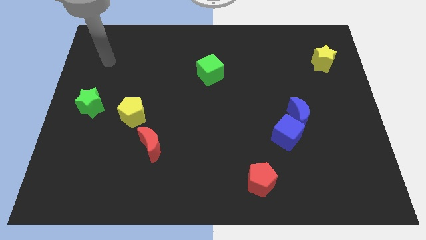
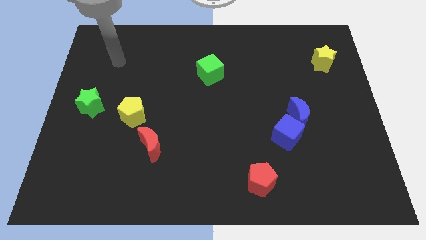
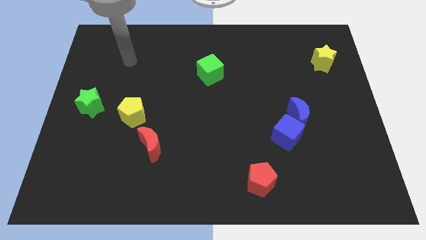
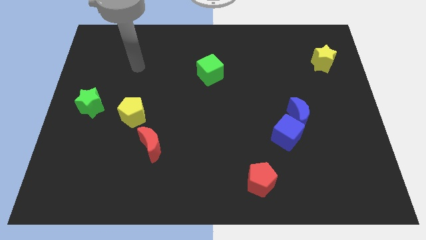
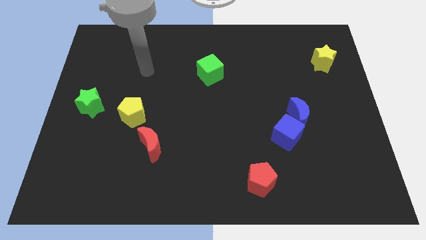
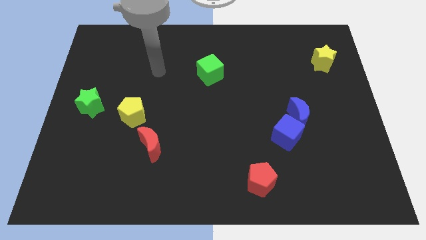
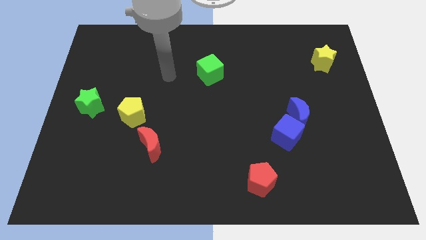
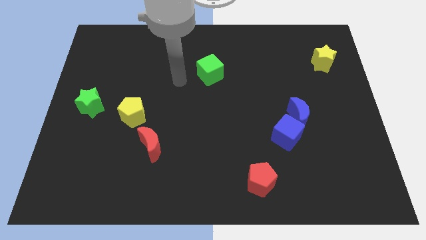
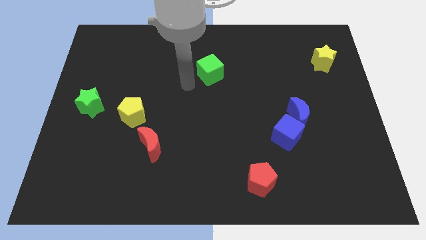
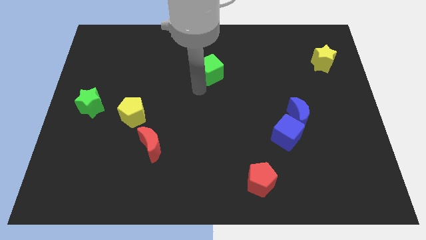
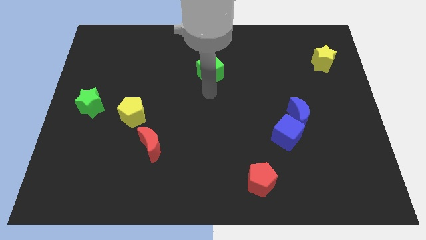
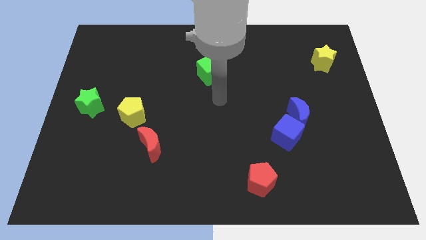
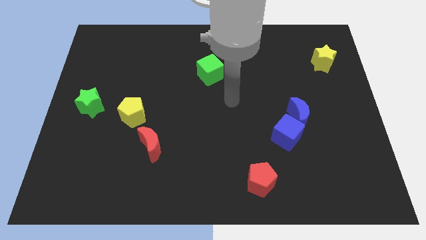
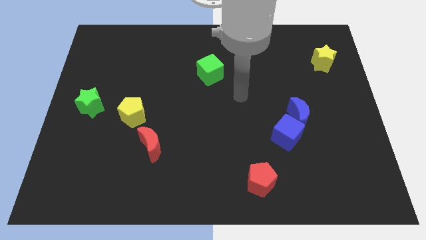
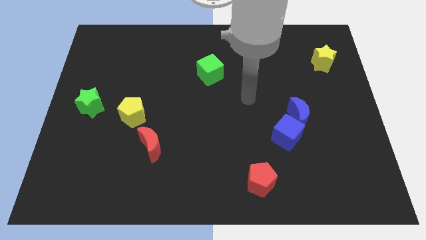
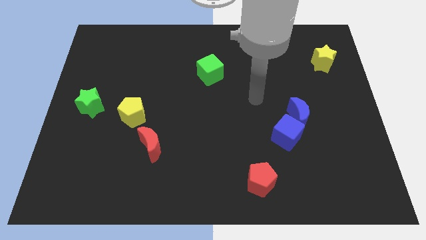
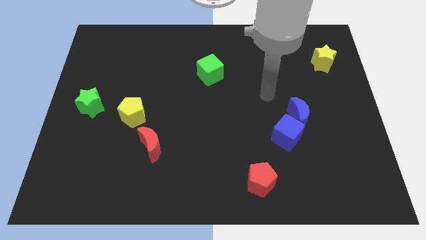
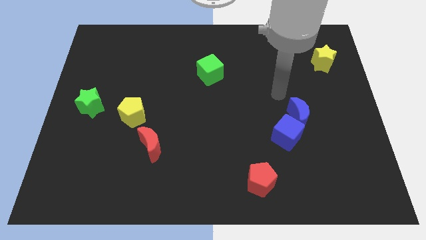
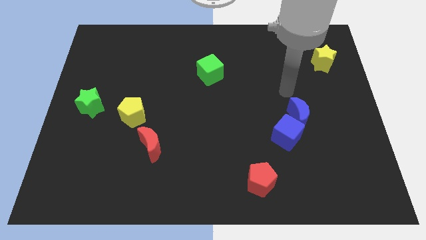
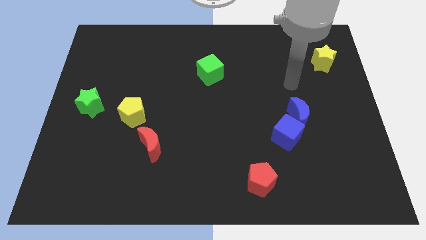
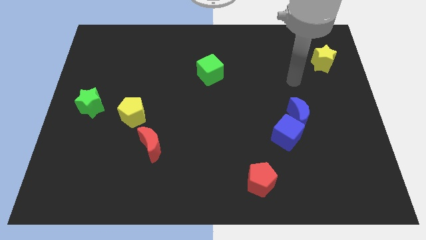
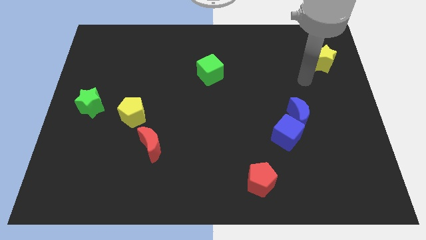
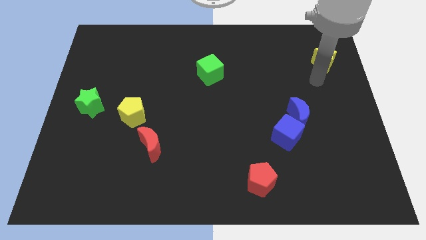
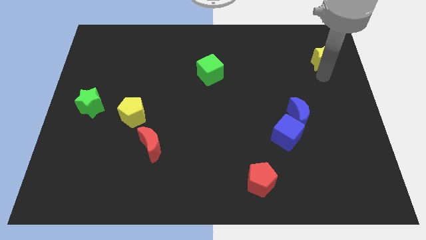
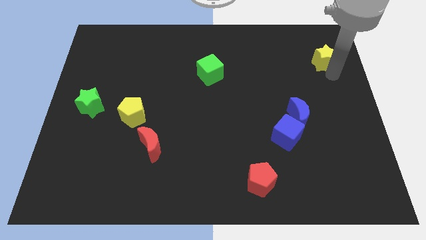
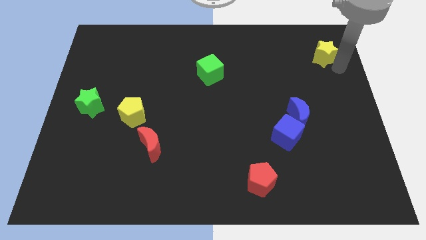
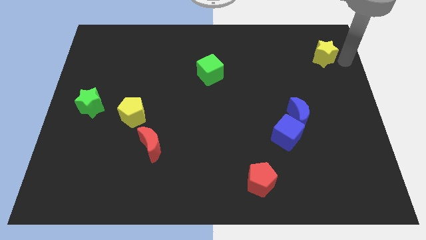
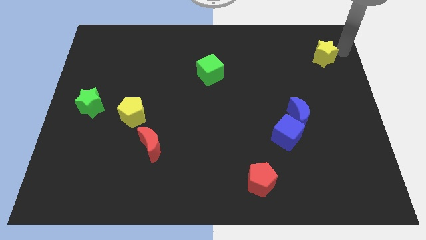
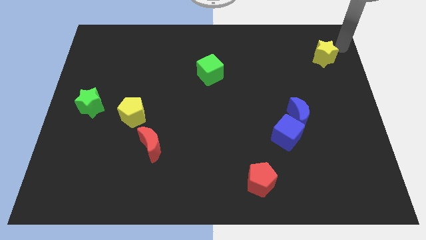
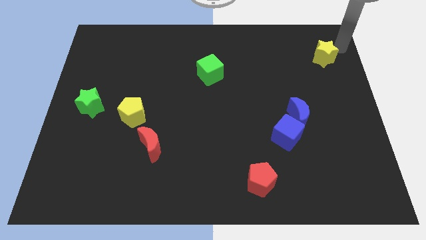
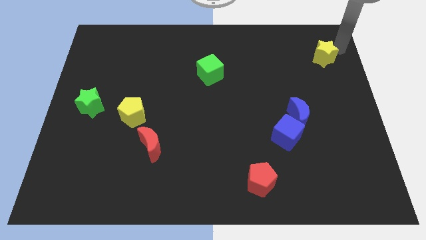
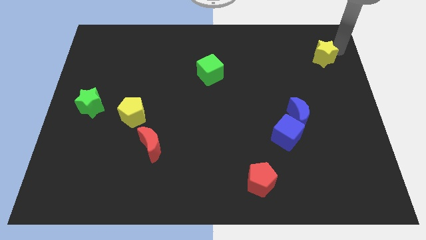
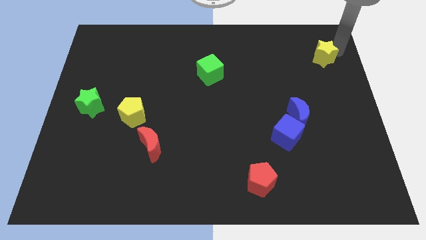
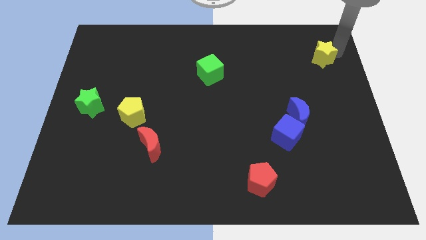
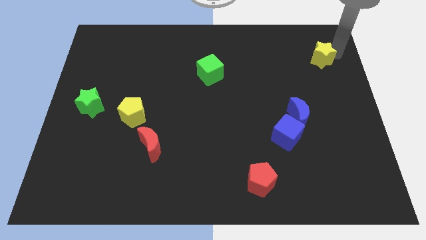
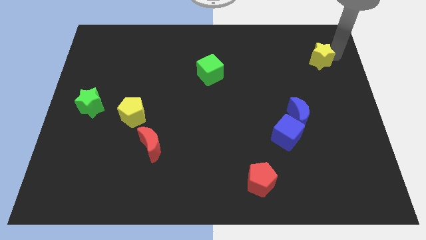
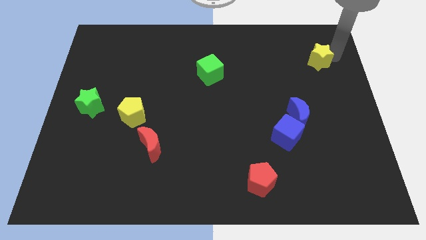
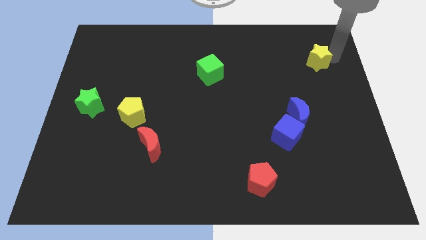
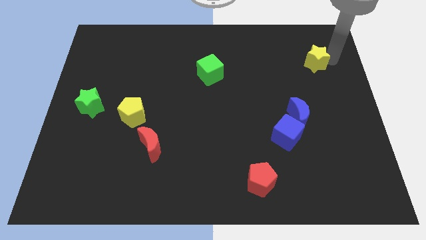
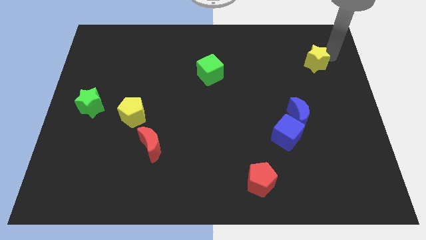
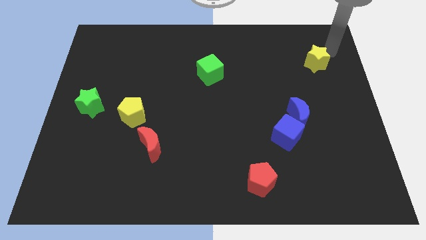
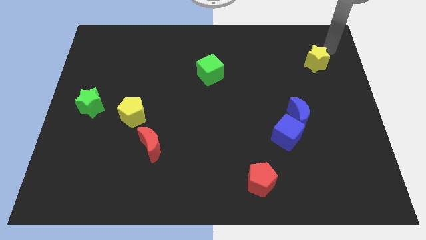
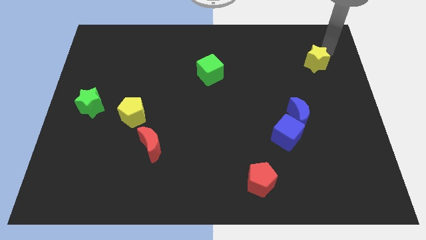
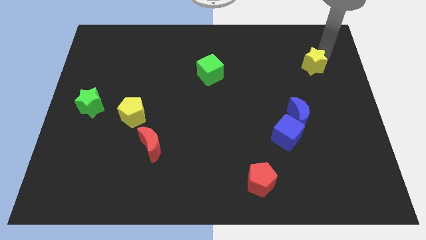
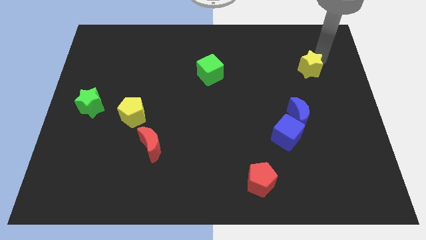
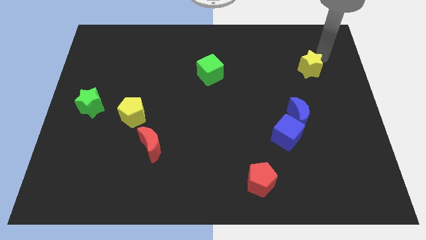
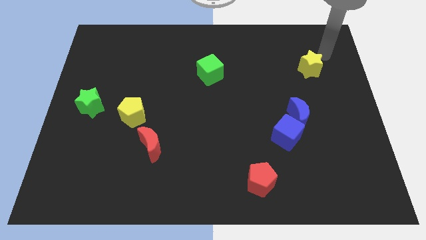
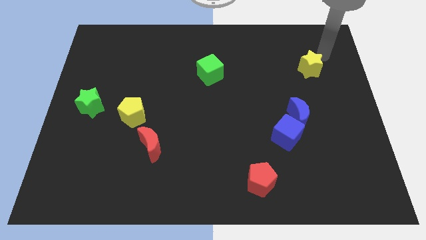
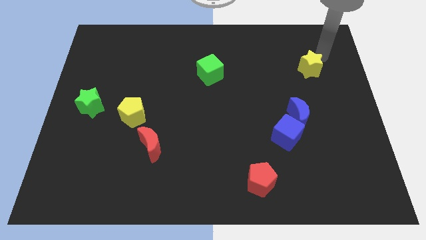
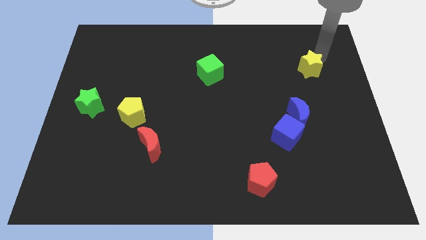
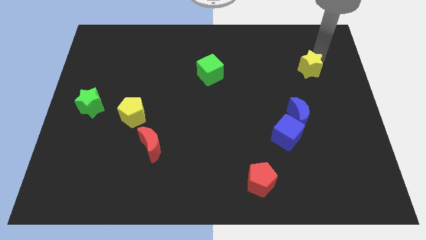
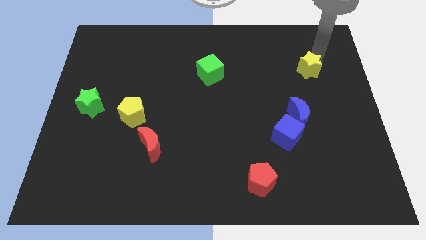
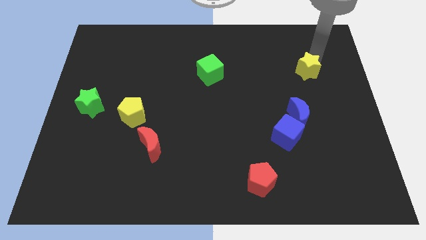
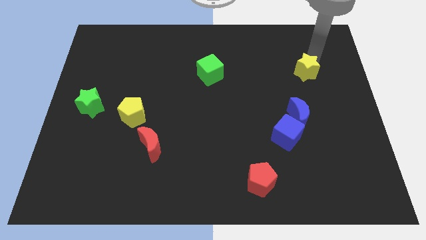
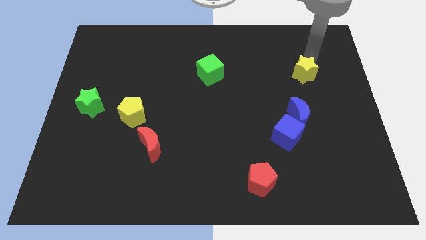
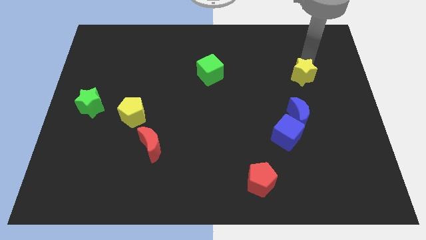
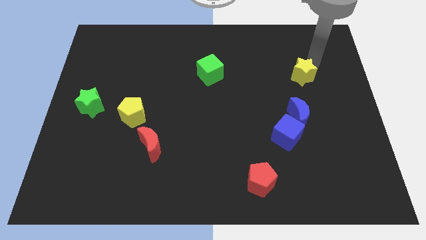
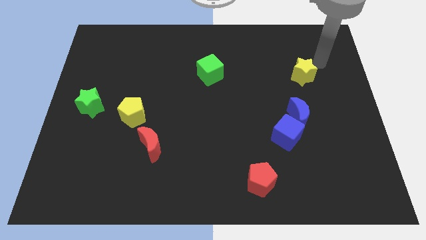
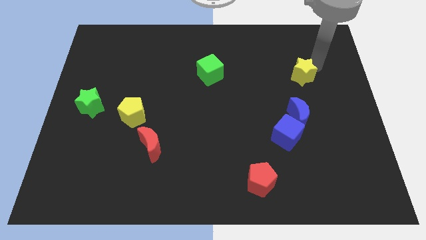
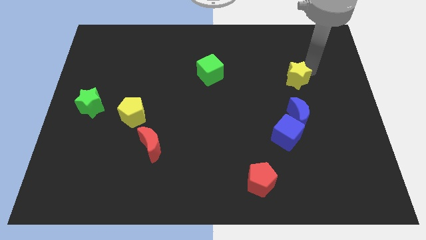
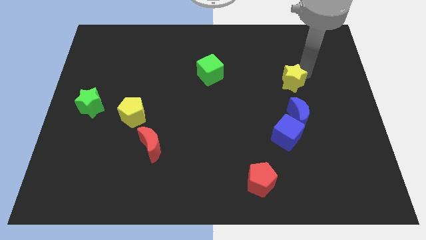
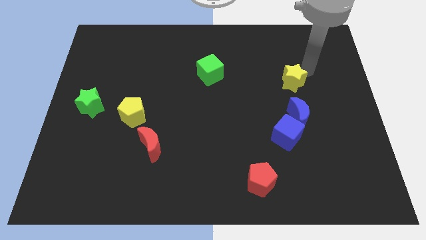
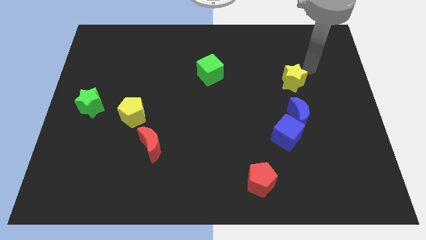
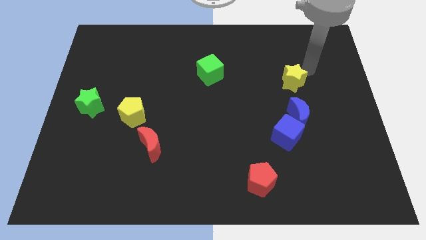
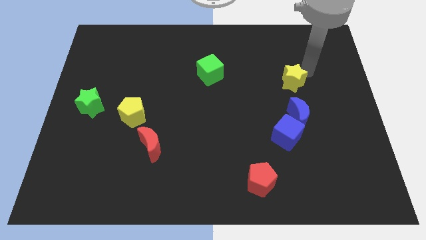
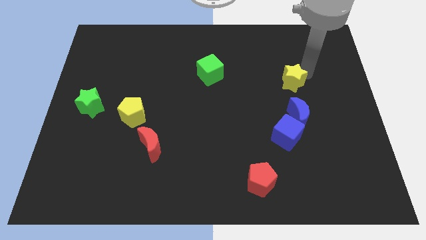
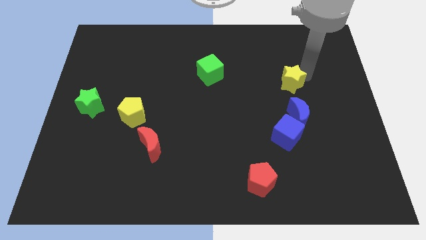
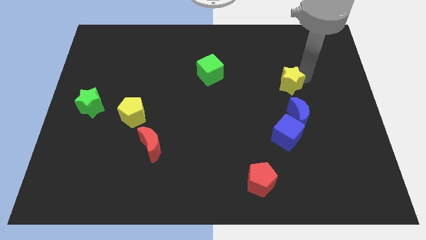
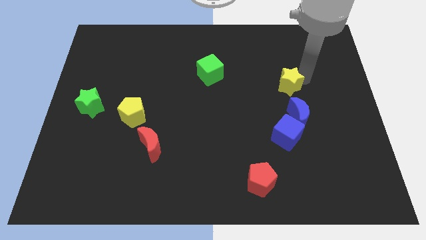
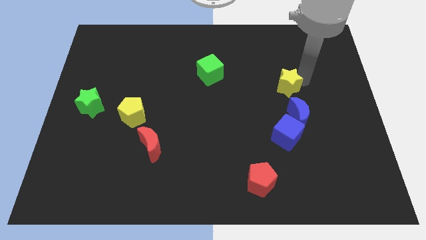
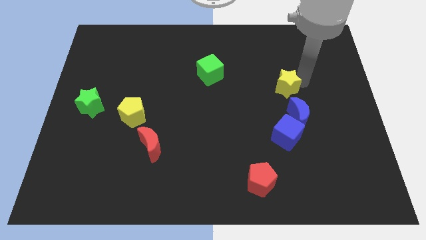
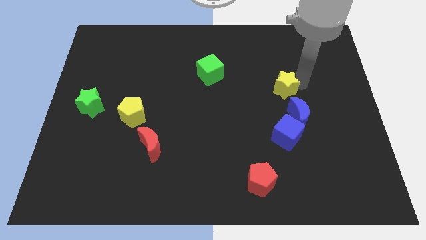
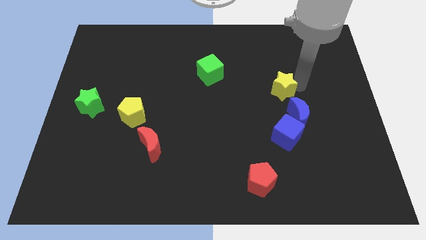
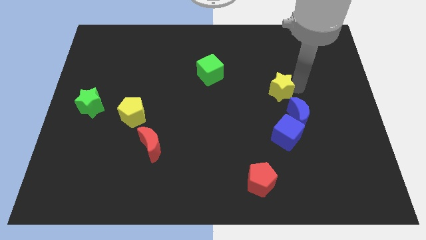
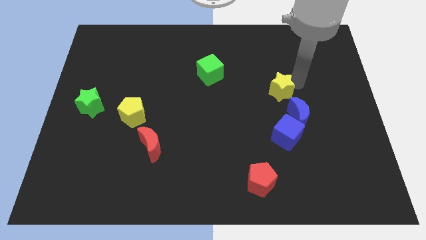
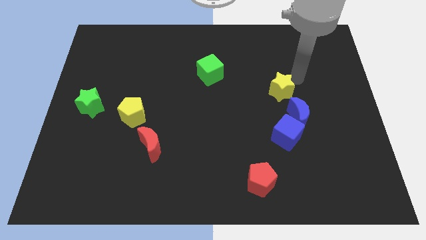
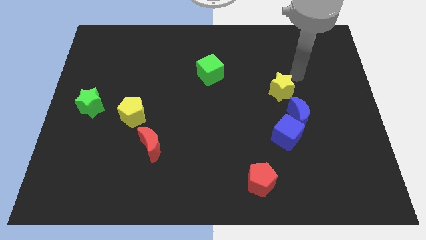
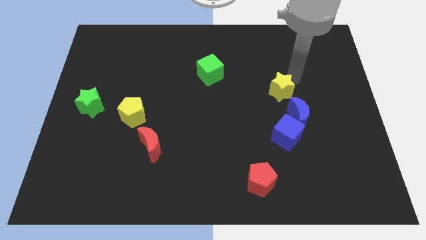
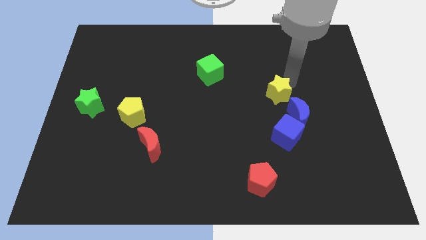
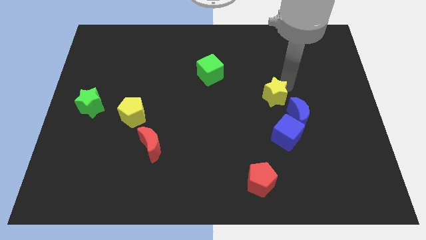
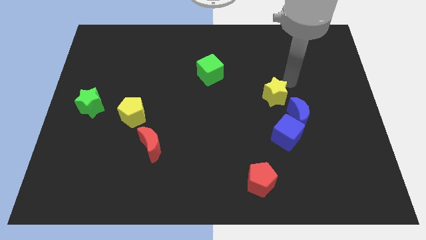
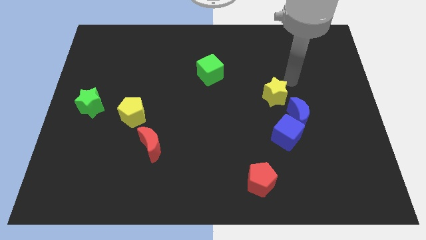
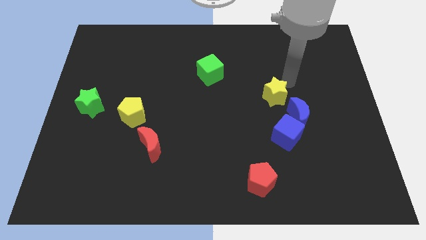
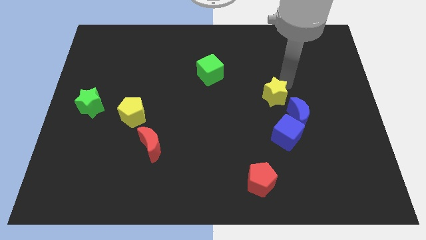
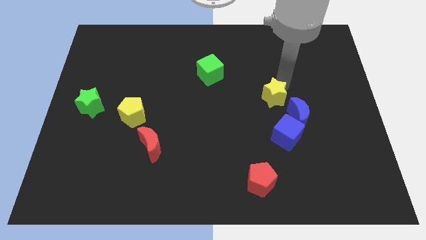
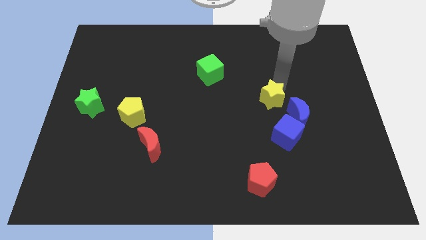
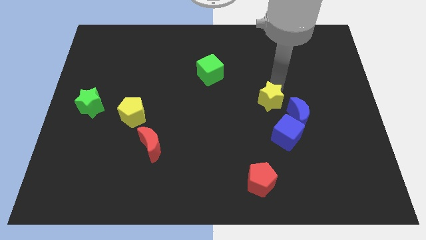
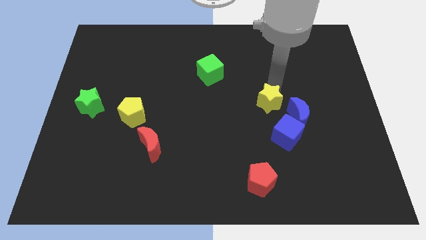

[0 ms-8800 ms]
slide the yellow star left of the blue moon
